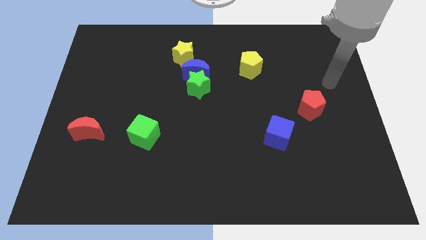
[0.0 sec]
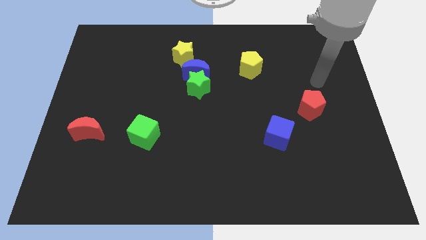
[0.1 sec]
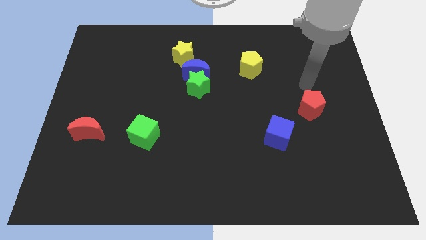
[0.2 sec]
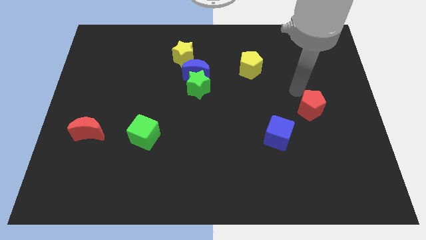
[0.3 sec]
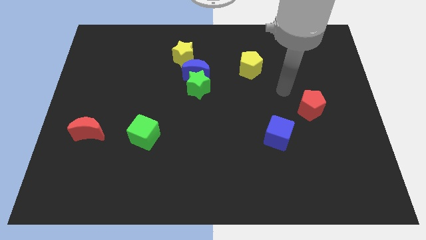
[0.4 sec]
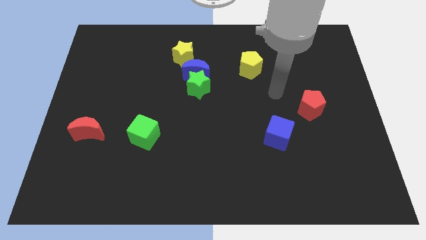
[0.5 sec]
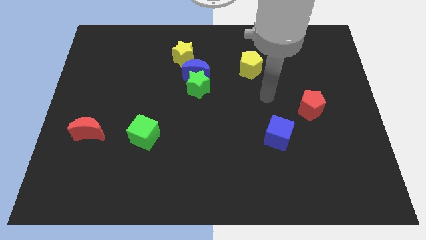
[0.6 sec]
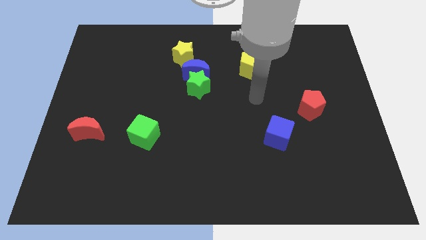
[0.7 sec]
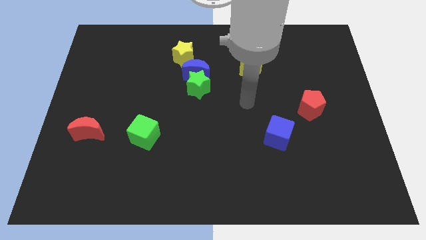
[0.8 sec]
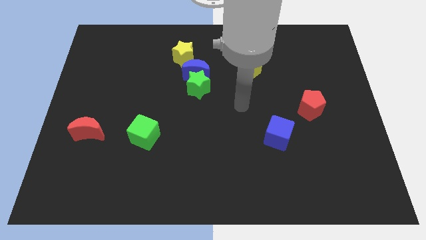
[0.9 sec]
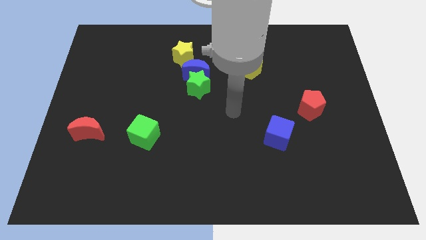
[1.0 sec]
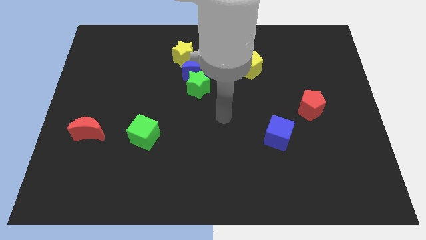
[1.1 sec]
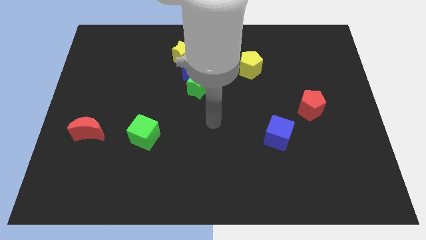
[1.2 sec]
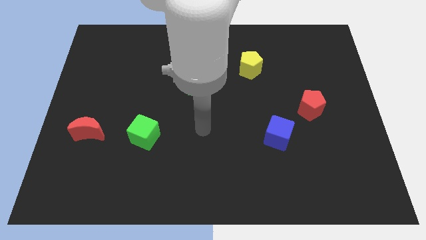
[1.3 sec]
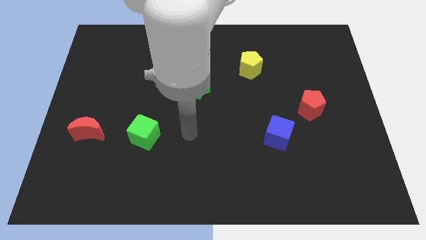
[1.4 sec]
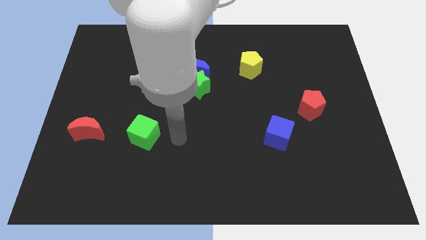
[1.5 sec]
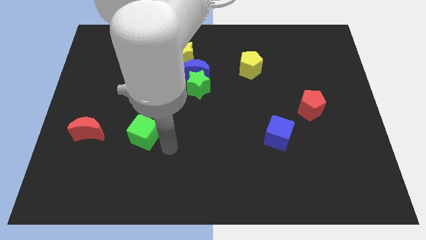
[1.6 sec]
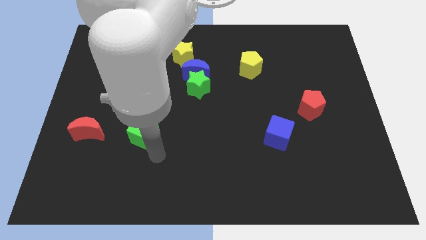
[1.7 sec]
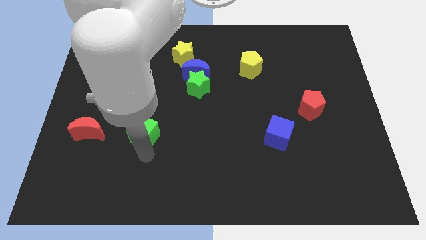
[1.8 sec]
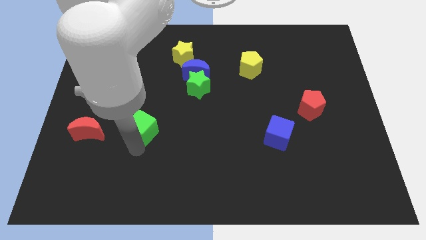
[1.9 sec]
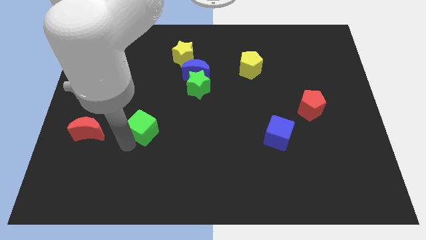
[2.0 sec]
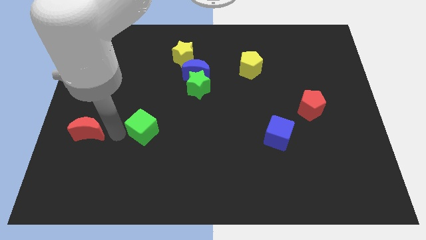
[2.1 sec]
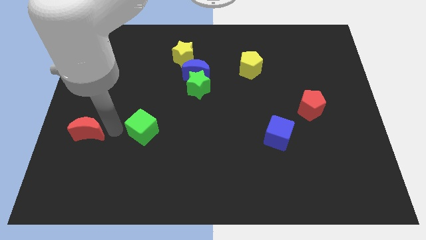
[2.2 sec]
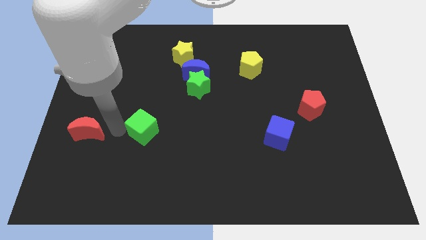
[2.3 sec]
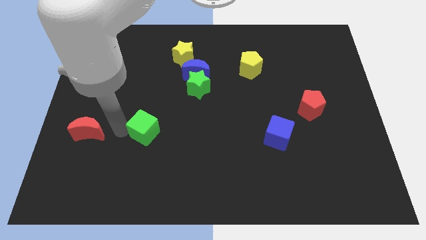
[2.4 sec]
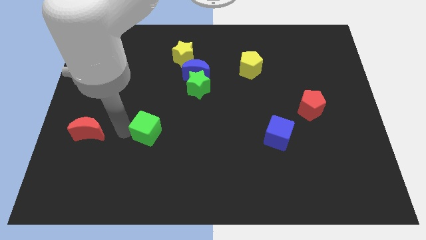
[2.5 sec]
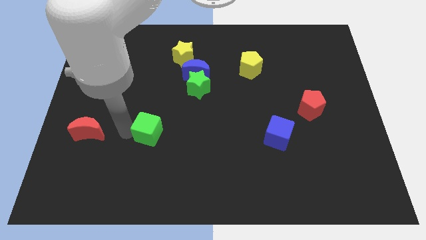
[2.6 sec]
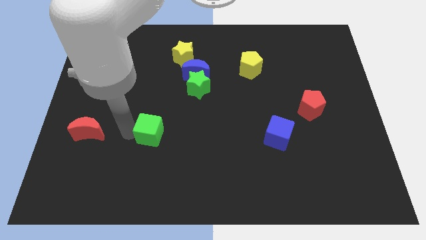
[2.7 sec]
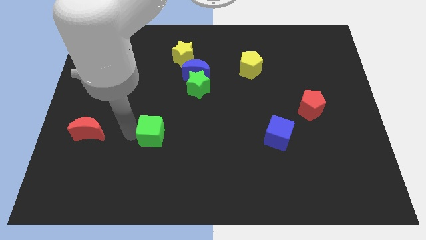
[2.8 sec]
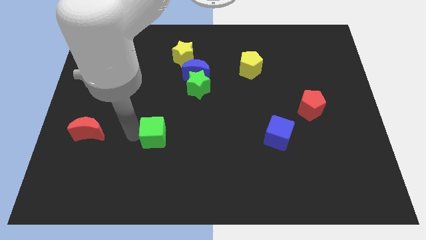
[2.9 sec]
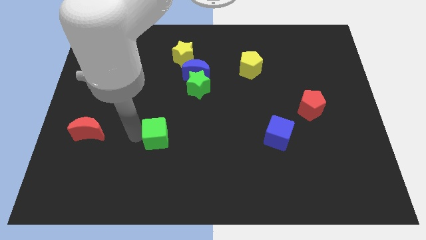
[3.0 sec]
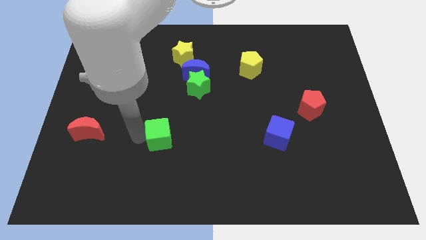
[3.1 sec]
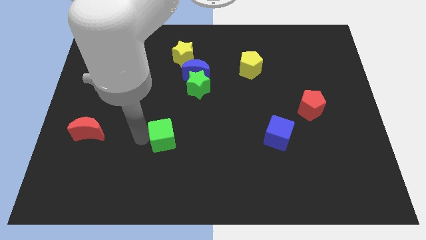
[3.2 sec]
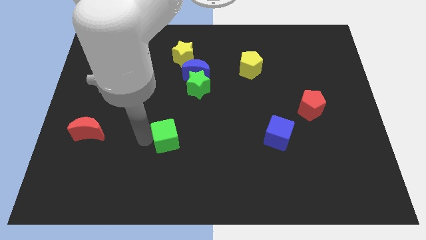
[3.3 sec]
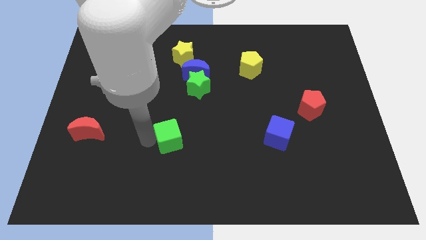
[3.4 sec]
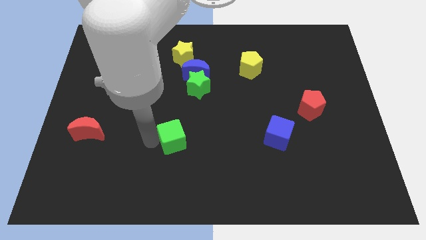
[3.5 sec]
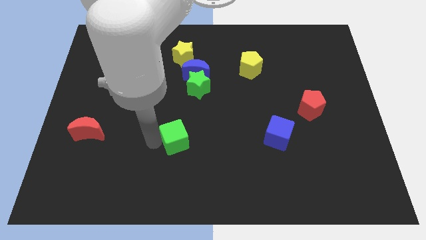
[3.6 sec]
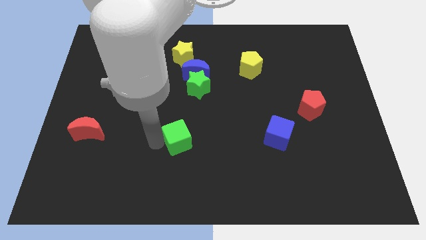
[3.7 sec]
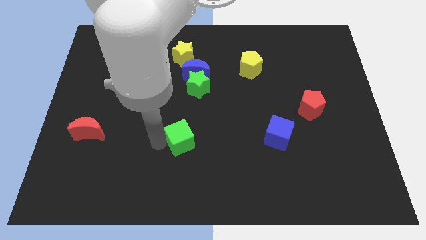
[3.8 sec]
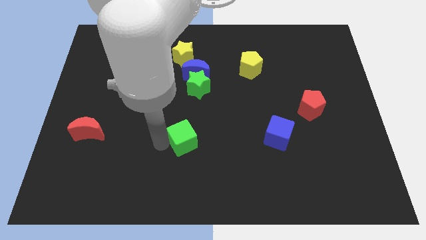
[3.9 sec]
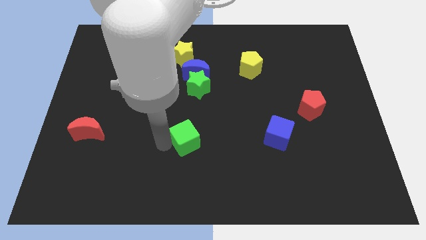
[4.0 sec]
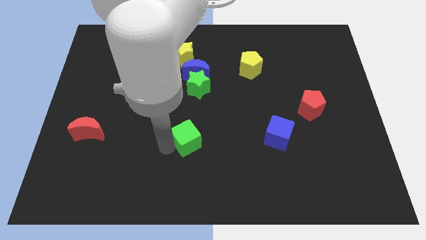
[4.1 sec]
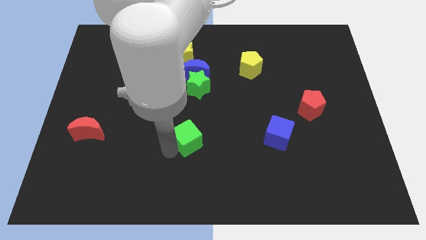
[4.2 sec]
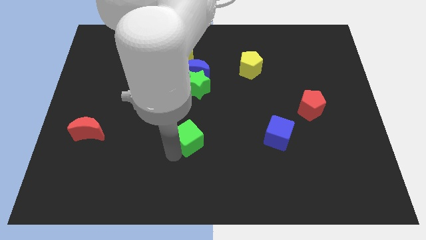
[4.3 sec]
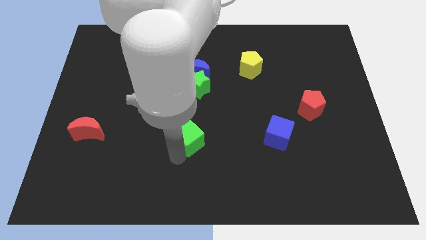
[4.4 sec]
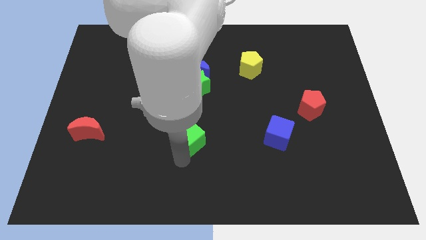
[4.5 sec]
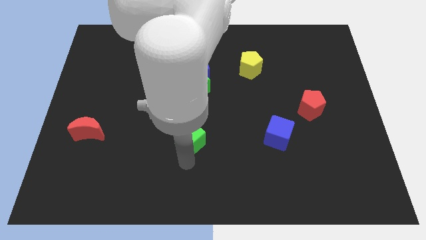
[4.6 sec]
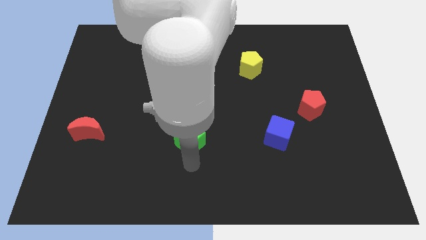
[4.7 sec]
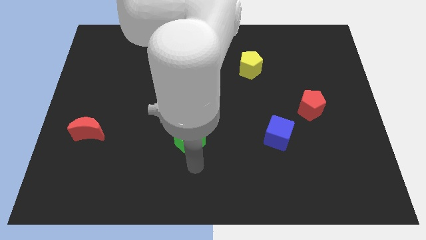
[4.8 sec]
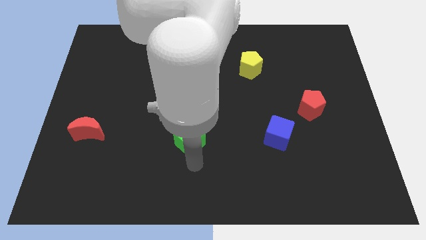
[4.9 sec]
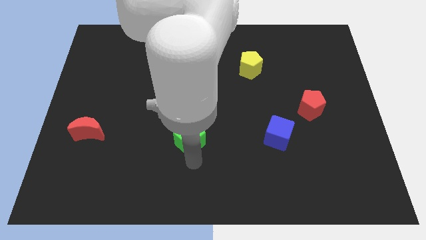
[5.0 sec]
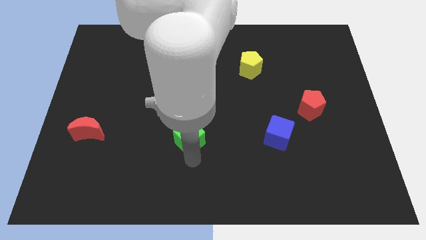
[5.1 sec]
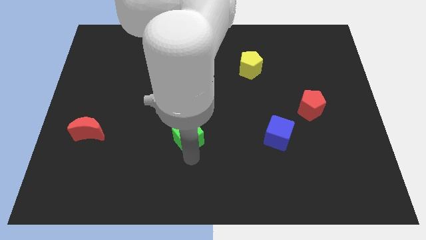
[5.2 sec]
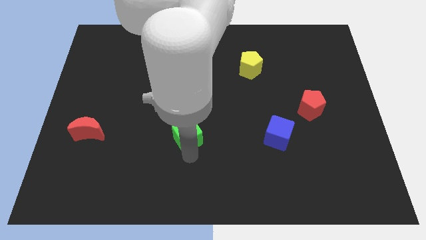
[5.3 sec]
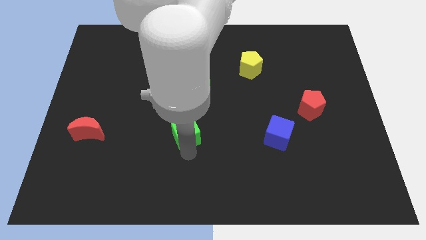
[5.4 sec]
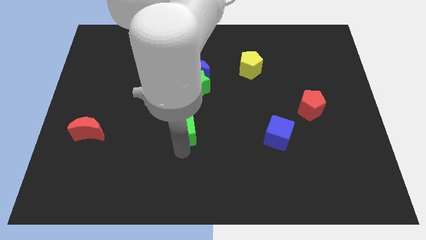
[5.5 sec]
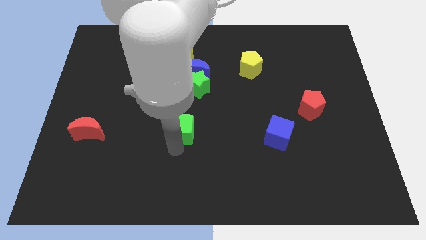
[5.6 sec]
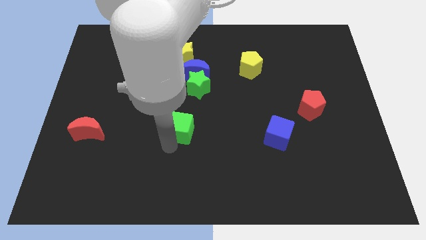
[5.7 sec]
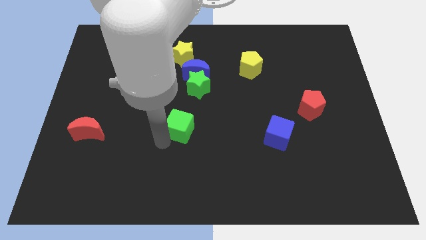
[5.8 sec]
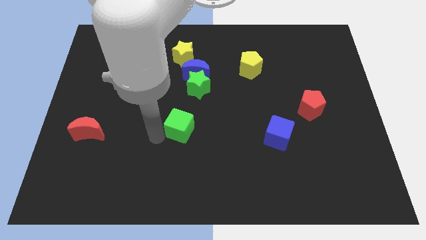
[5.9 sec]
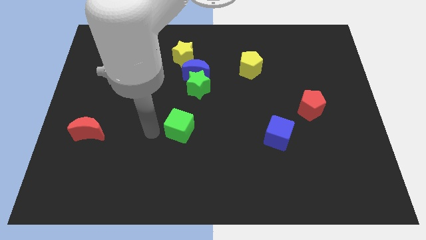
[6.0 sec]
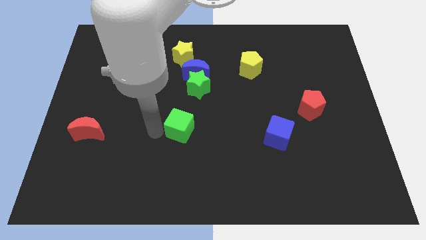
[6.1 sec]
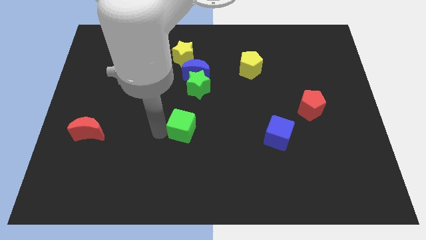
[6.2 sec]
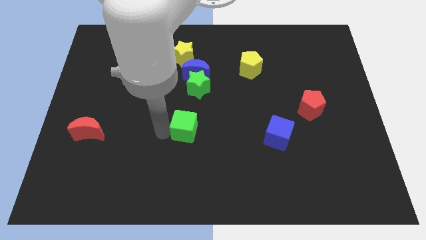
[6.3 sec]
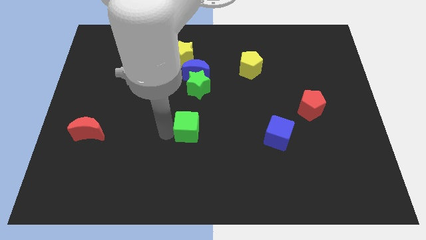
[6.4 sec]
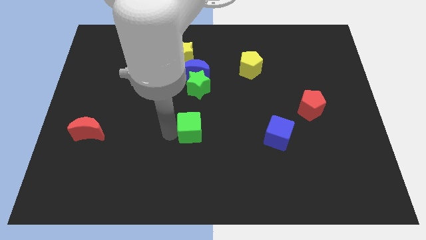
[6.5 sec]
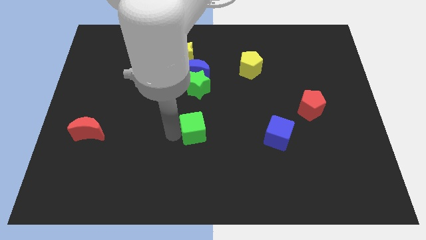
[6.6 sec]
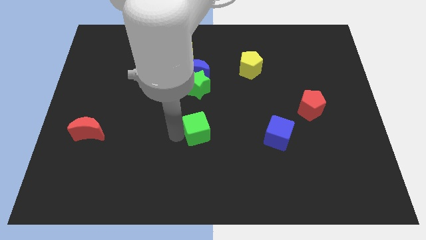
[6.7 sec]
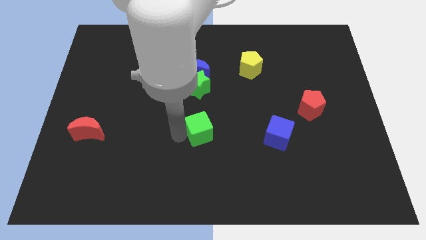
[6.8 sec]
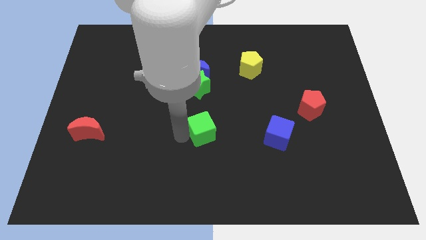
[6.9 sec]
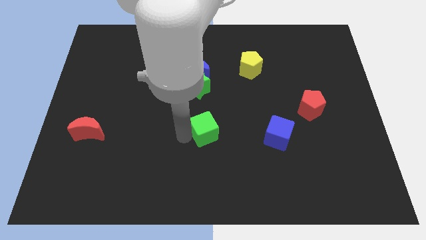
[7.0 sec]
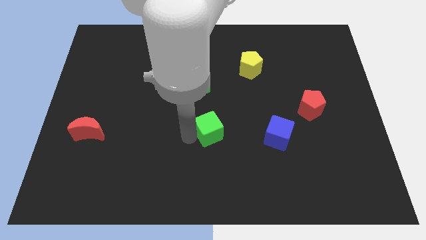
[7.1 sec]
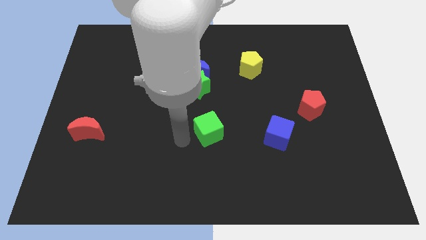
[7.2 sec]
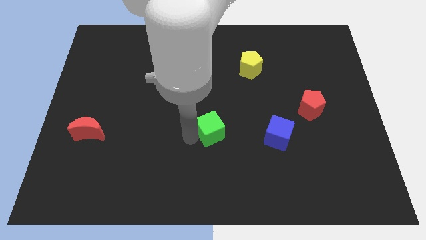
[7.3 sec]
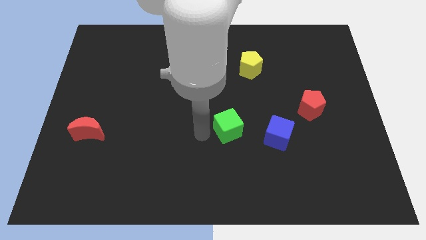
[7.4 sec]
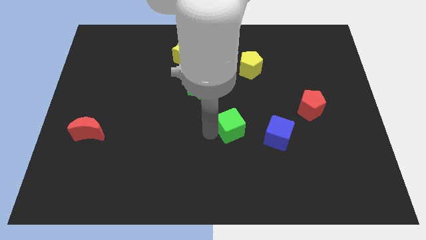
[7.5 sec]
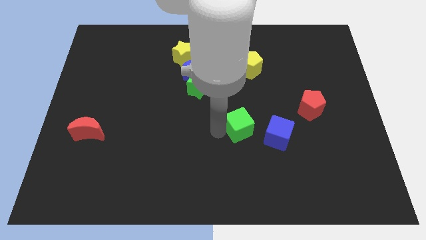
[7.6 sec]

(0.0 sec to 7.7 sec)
move the green cube to the top left side of the blue cube
